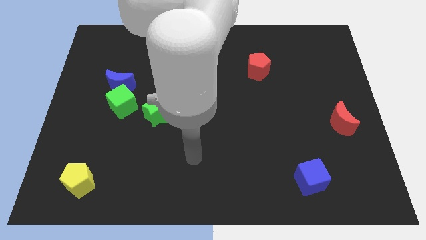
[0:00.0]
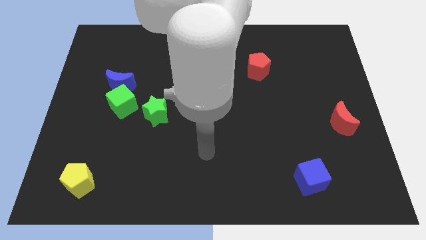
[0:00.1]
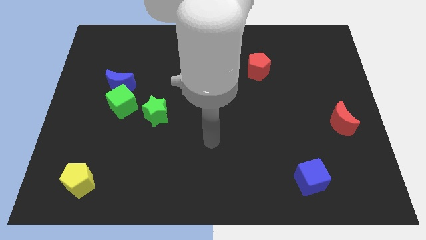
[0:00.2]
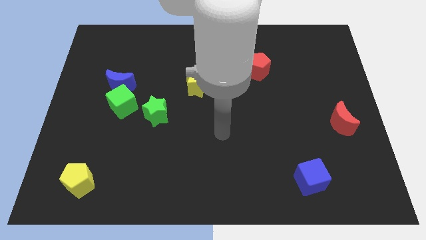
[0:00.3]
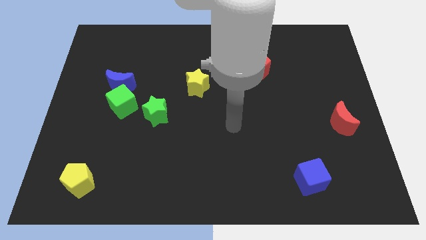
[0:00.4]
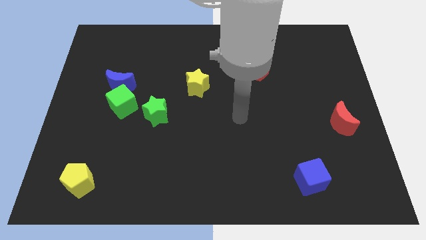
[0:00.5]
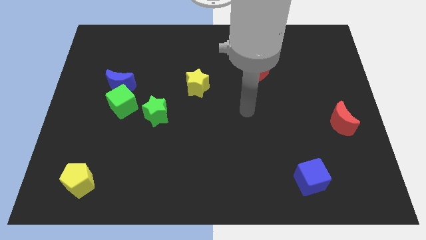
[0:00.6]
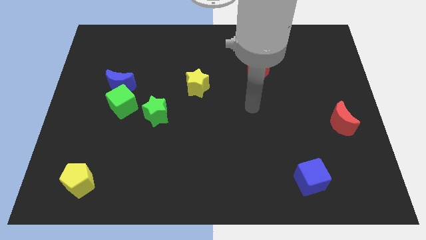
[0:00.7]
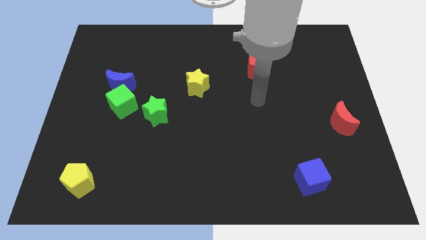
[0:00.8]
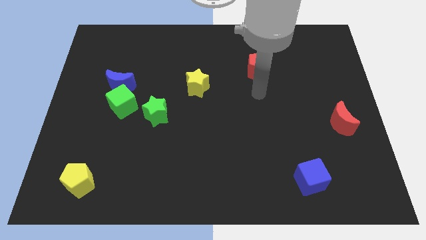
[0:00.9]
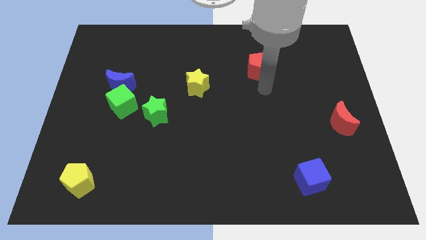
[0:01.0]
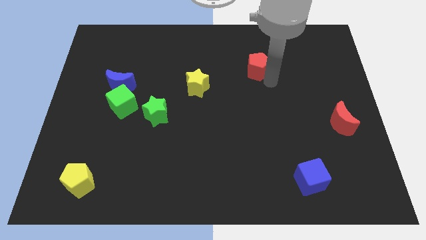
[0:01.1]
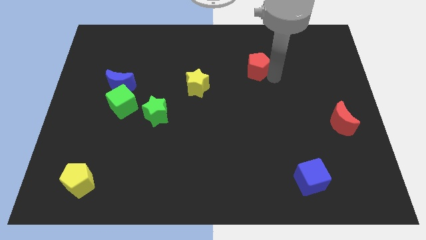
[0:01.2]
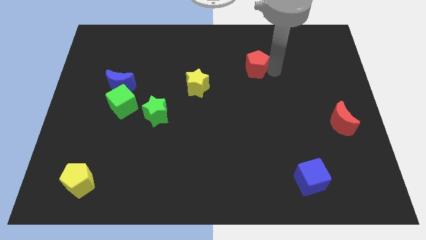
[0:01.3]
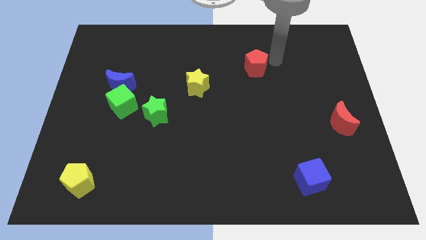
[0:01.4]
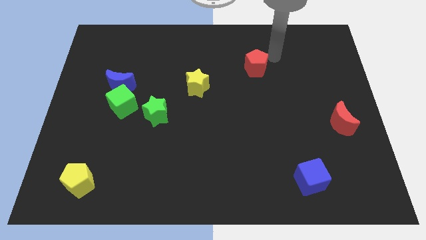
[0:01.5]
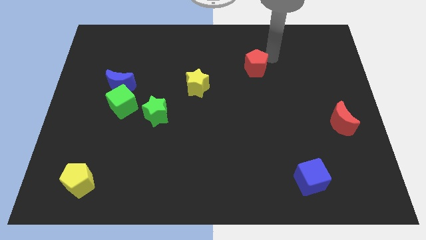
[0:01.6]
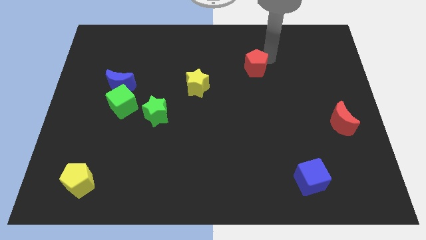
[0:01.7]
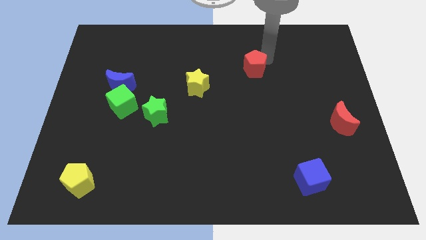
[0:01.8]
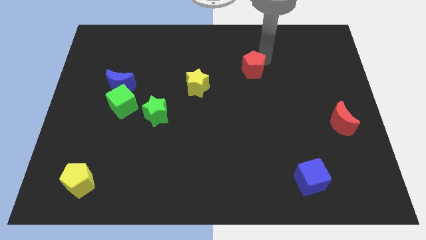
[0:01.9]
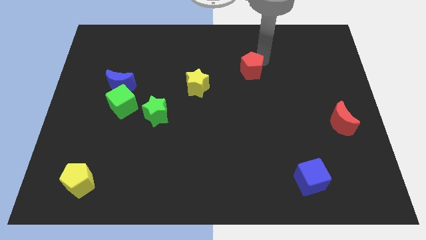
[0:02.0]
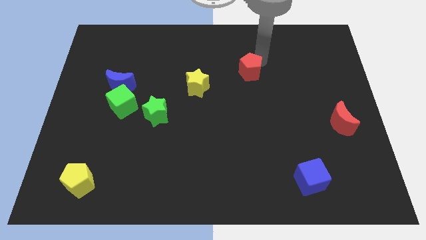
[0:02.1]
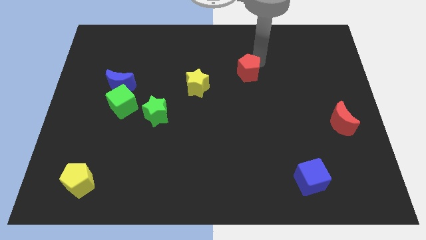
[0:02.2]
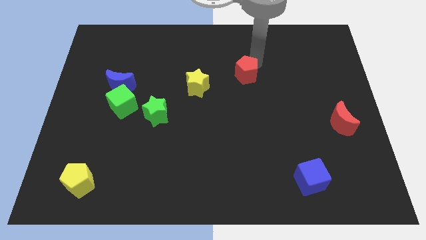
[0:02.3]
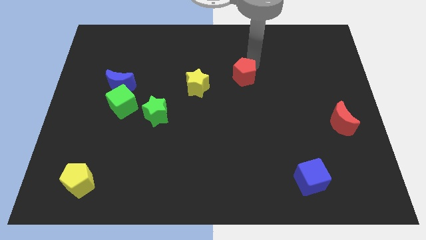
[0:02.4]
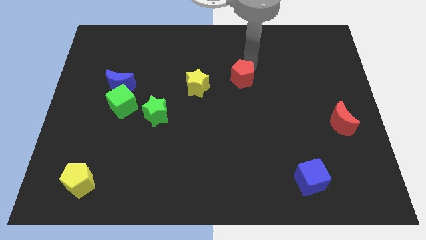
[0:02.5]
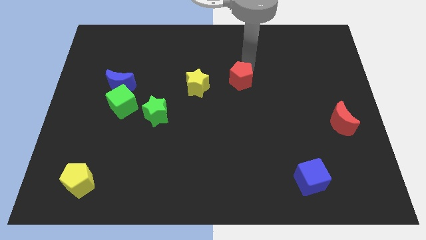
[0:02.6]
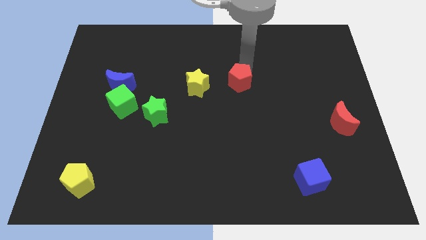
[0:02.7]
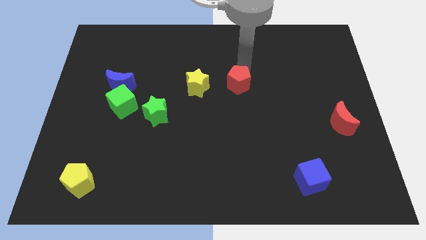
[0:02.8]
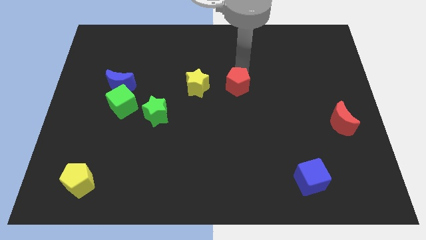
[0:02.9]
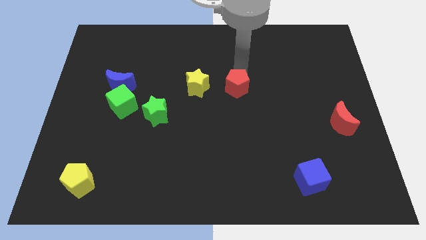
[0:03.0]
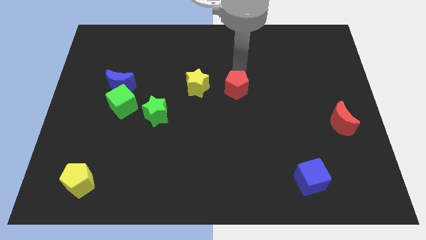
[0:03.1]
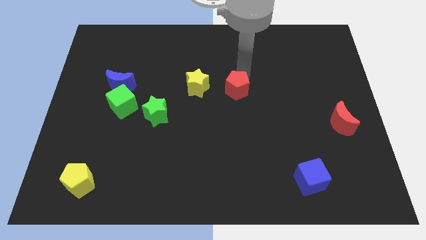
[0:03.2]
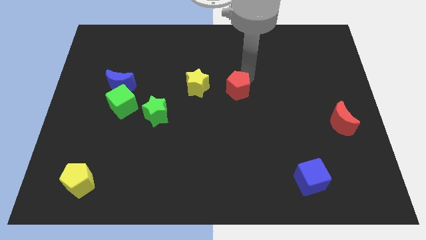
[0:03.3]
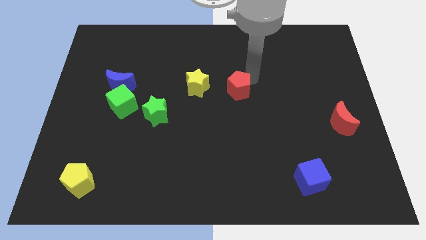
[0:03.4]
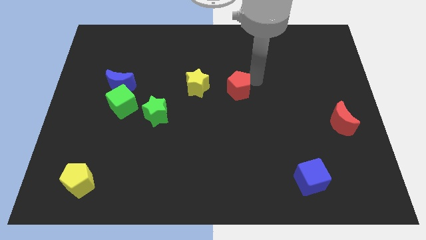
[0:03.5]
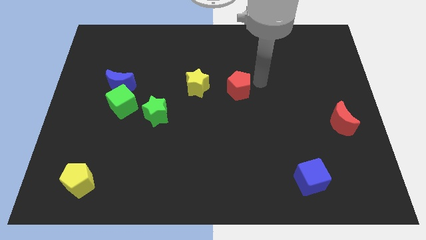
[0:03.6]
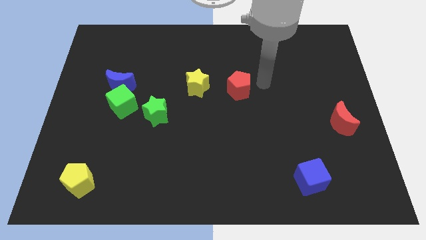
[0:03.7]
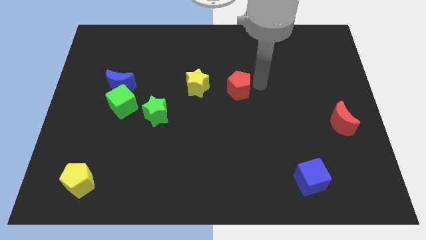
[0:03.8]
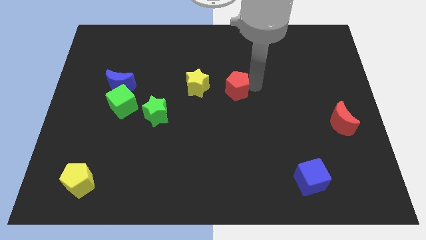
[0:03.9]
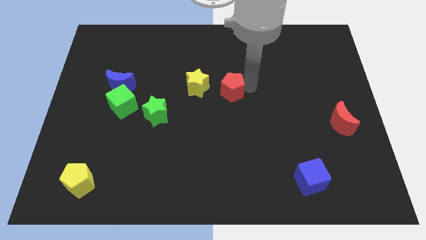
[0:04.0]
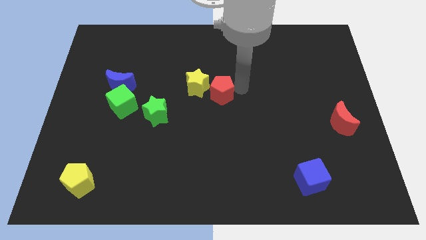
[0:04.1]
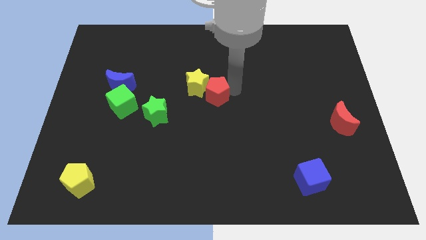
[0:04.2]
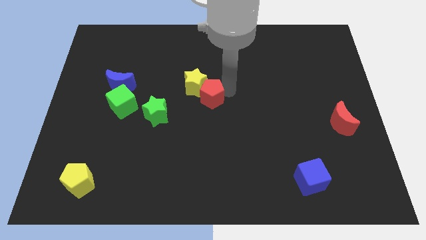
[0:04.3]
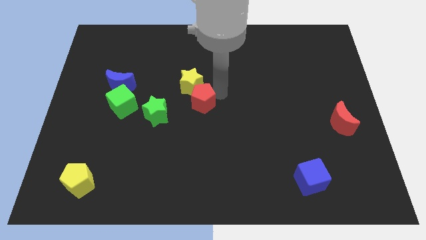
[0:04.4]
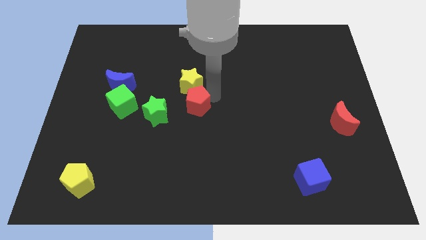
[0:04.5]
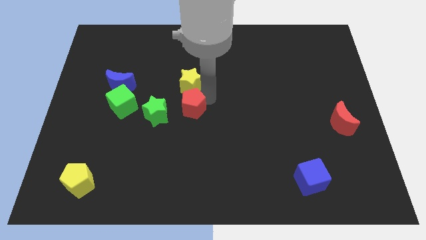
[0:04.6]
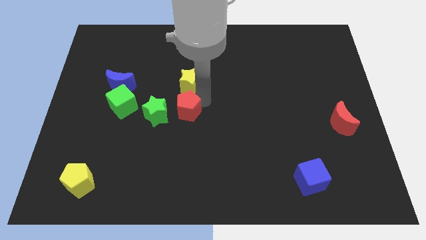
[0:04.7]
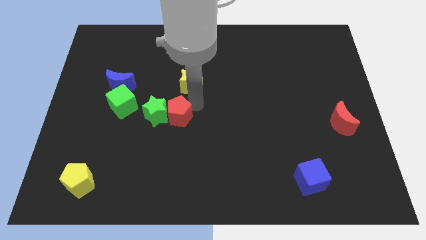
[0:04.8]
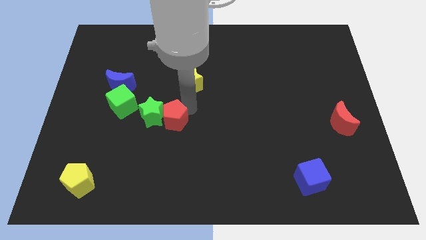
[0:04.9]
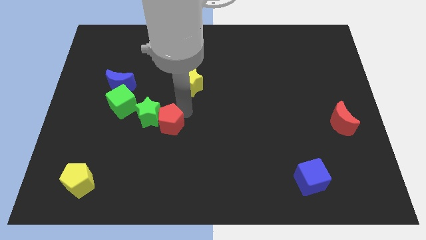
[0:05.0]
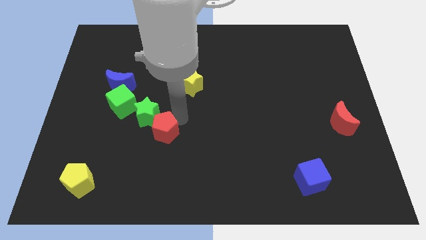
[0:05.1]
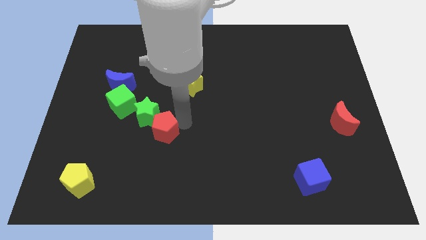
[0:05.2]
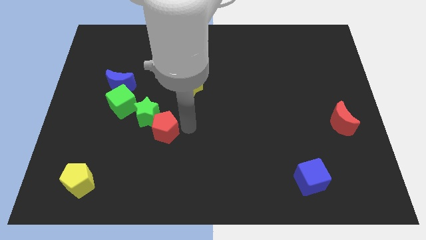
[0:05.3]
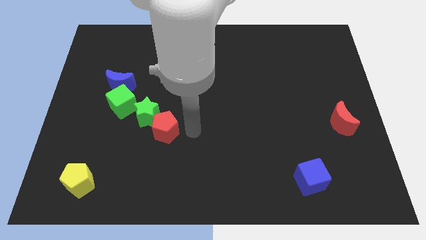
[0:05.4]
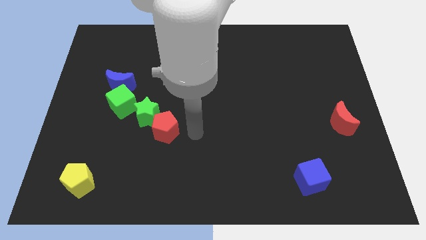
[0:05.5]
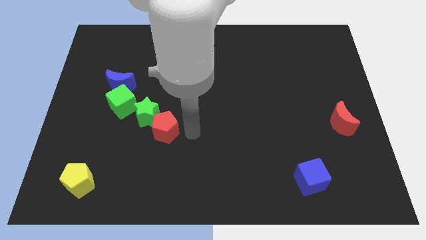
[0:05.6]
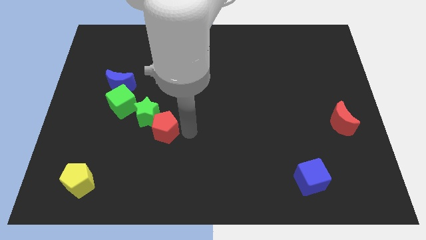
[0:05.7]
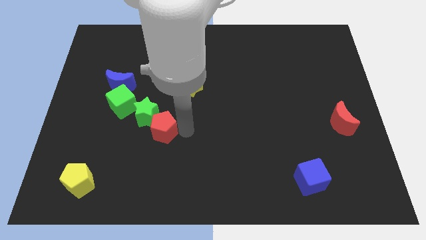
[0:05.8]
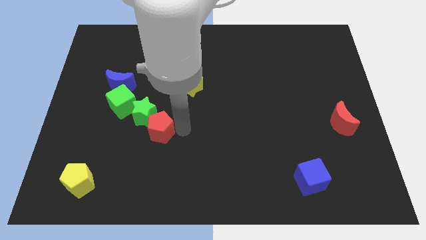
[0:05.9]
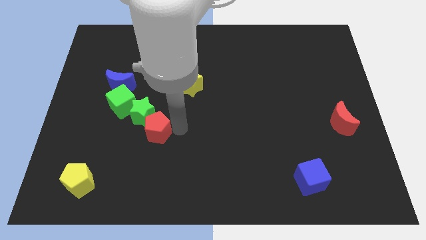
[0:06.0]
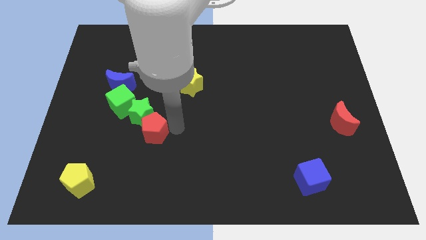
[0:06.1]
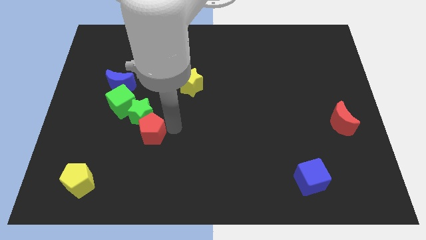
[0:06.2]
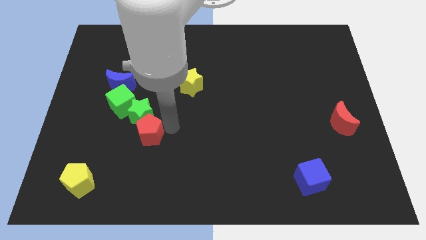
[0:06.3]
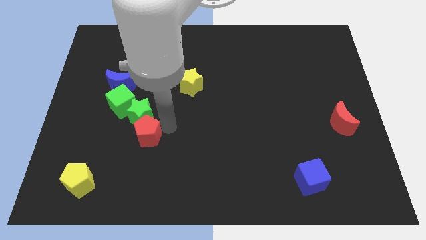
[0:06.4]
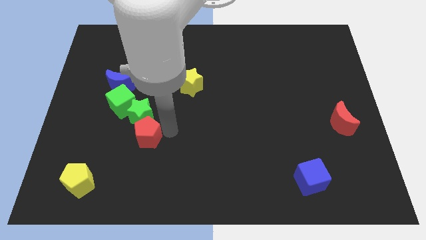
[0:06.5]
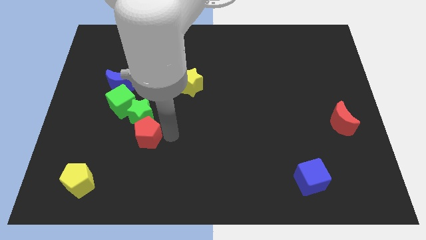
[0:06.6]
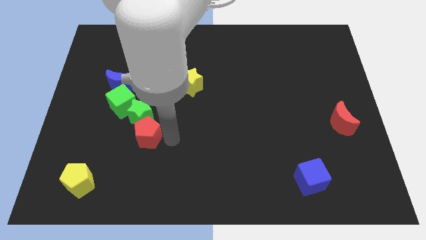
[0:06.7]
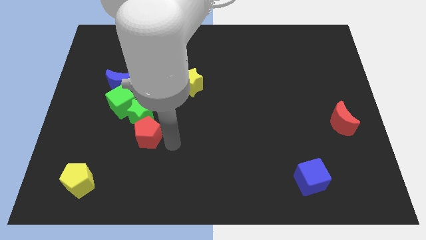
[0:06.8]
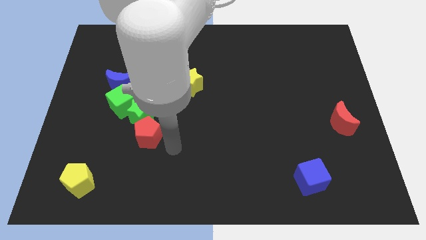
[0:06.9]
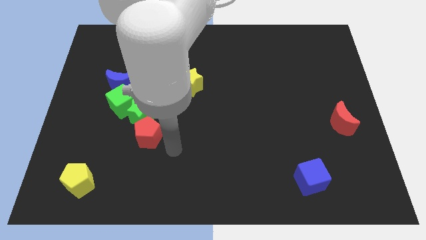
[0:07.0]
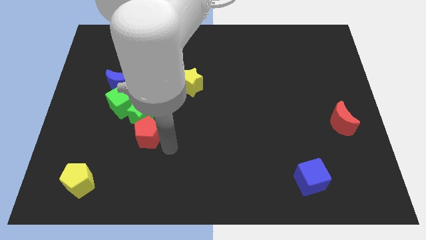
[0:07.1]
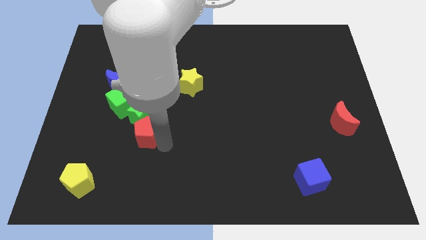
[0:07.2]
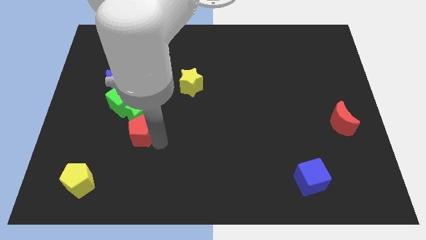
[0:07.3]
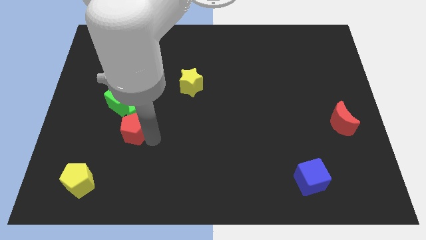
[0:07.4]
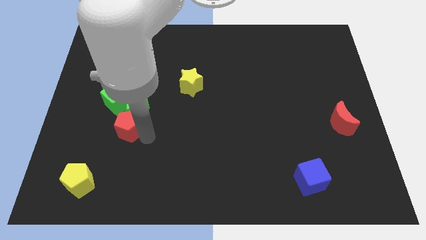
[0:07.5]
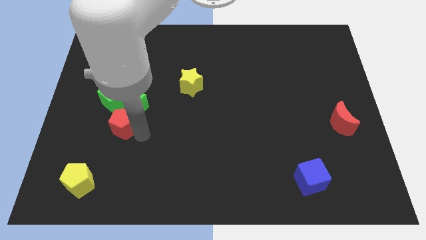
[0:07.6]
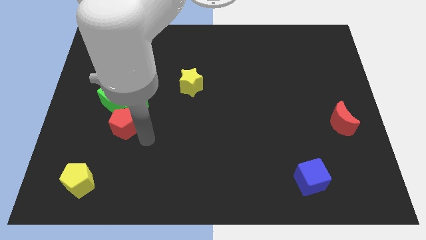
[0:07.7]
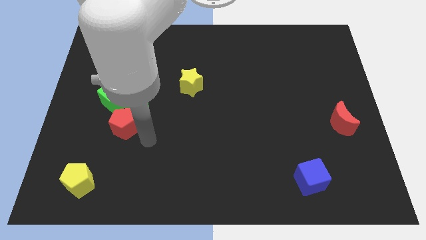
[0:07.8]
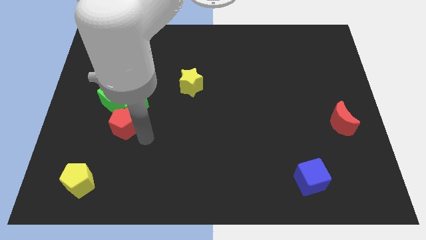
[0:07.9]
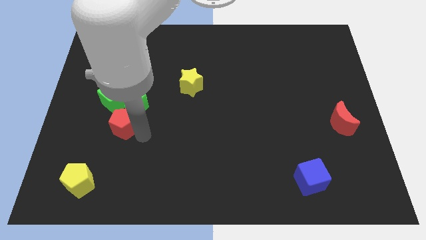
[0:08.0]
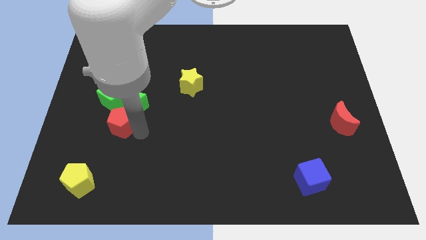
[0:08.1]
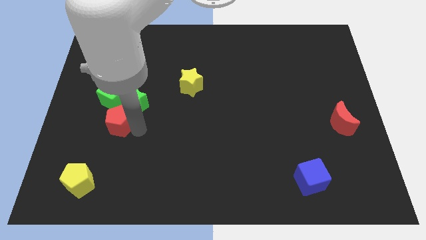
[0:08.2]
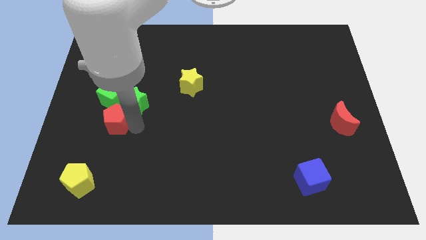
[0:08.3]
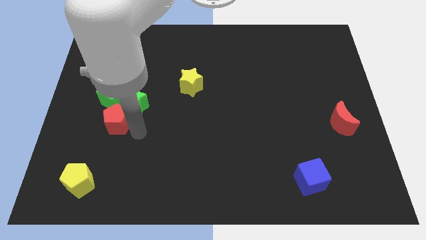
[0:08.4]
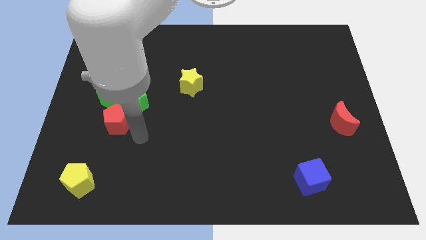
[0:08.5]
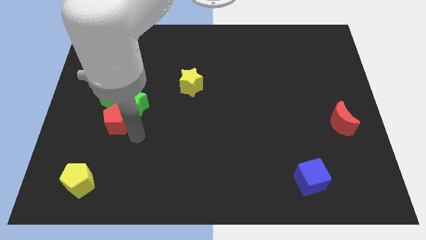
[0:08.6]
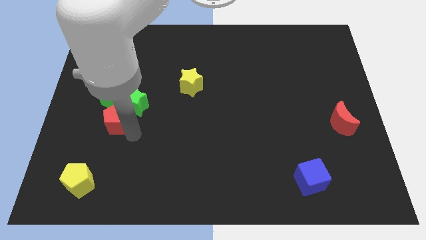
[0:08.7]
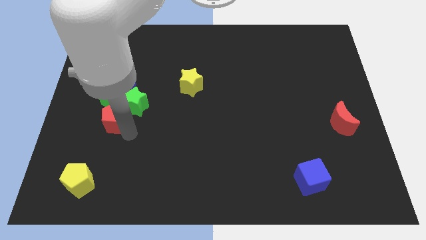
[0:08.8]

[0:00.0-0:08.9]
slide the red pentagon to the left of the green star
